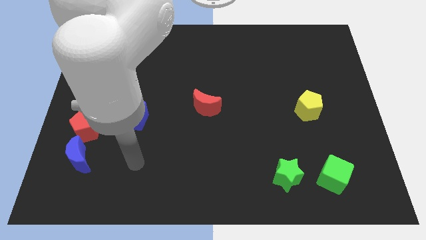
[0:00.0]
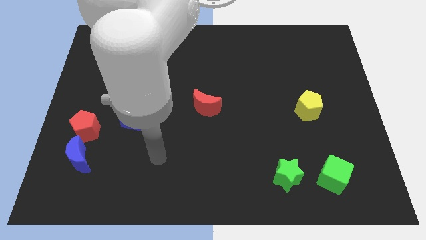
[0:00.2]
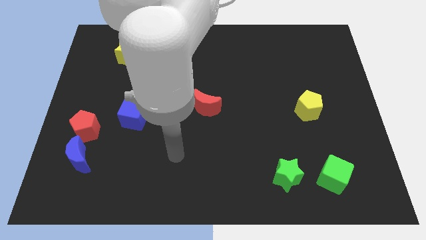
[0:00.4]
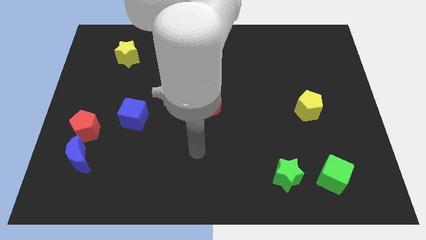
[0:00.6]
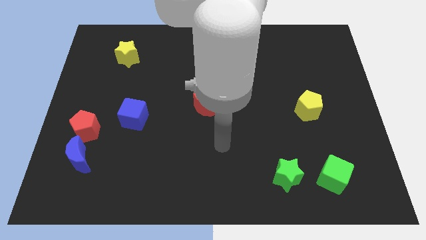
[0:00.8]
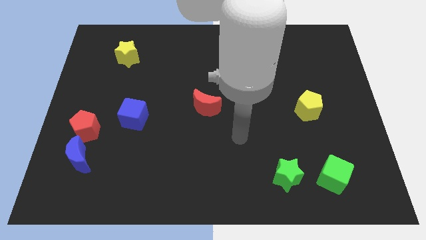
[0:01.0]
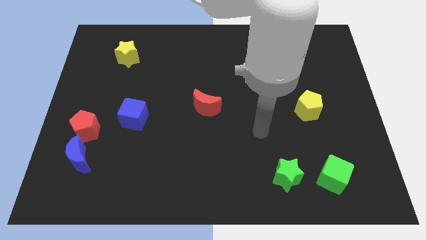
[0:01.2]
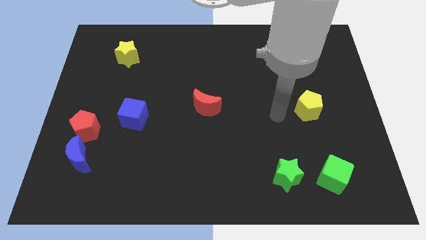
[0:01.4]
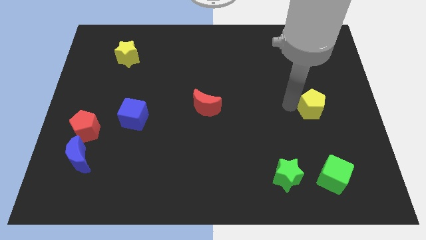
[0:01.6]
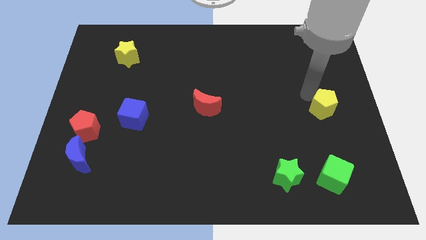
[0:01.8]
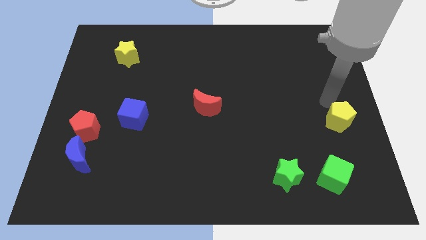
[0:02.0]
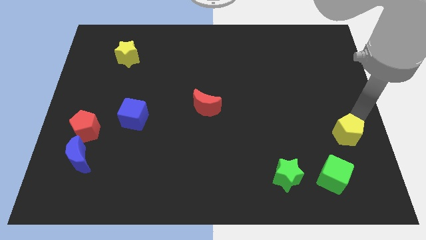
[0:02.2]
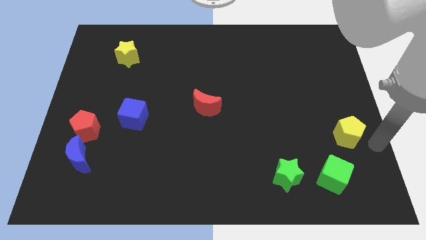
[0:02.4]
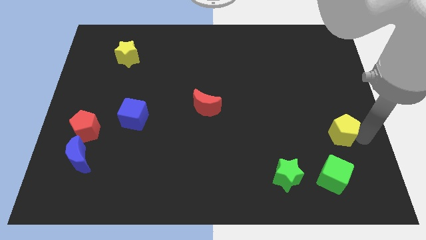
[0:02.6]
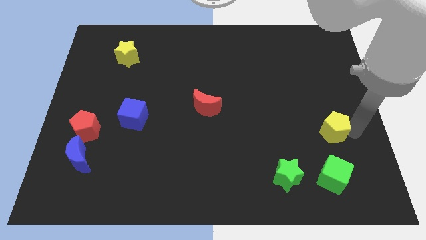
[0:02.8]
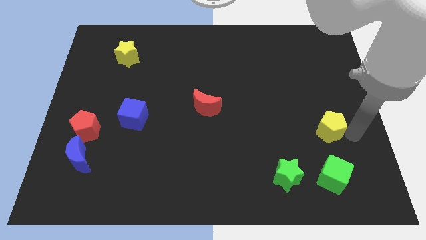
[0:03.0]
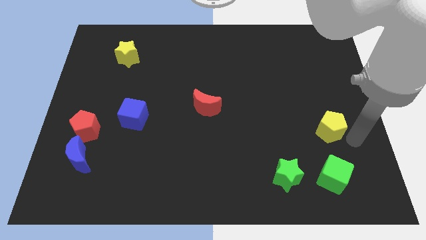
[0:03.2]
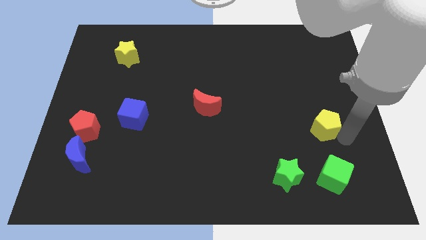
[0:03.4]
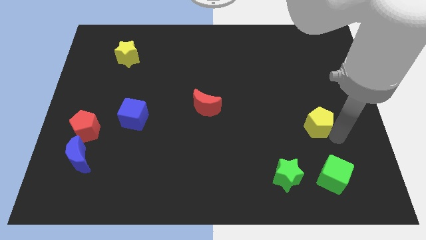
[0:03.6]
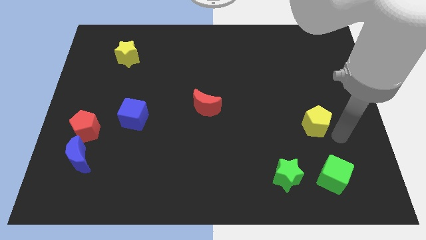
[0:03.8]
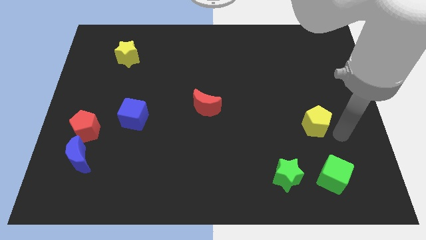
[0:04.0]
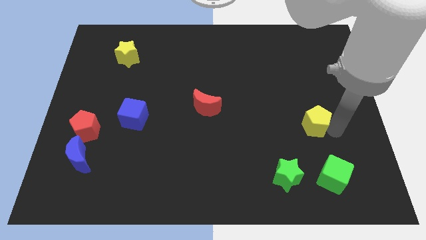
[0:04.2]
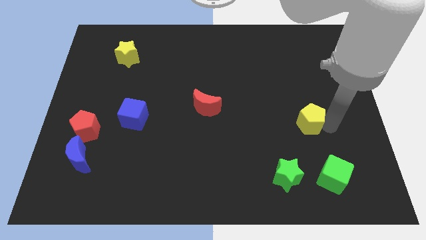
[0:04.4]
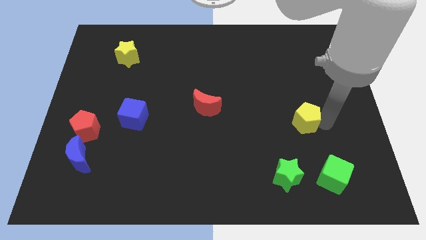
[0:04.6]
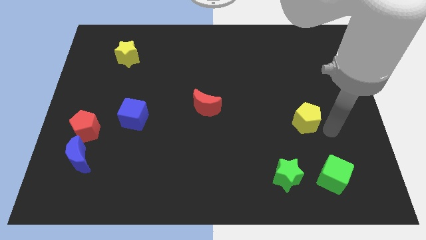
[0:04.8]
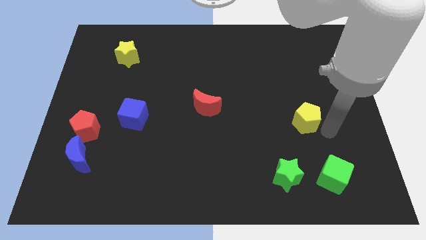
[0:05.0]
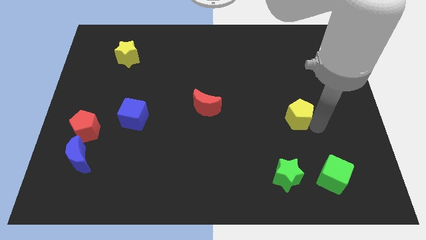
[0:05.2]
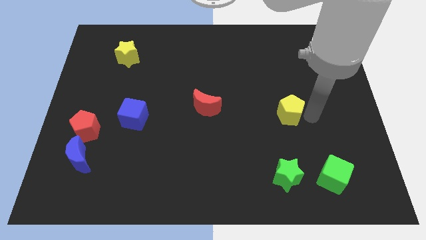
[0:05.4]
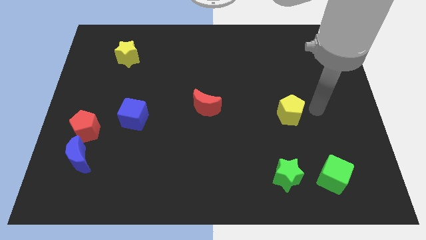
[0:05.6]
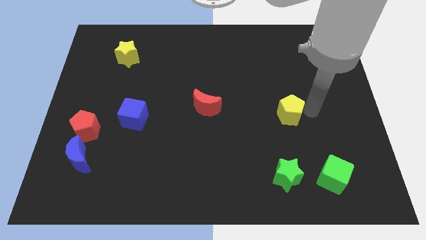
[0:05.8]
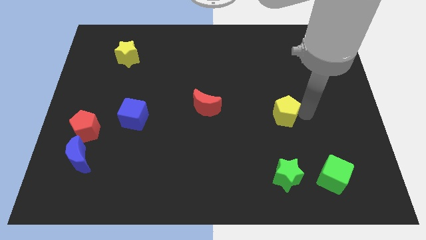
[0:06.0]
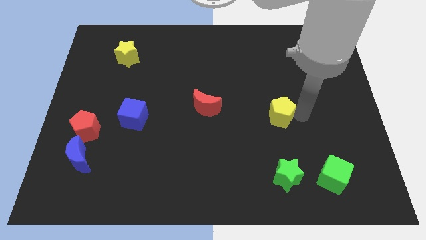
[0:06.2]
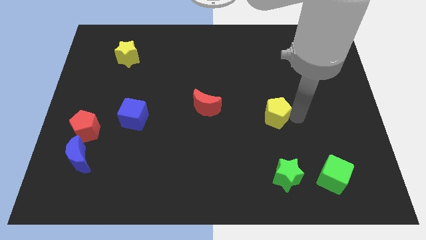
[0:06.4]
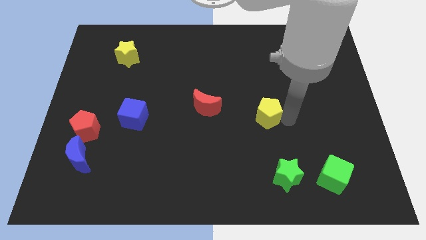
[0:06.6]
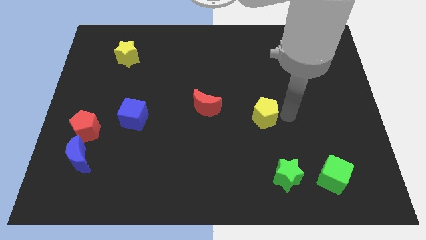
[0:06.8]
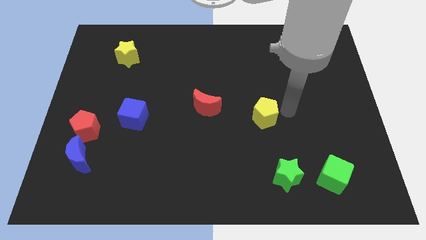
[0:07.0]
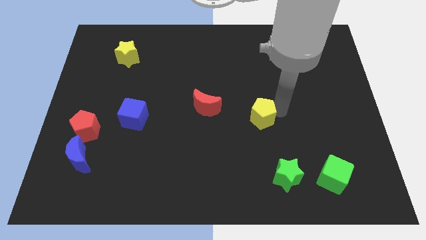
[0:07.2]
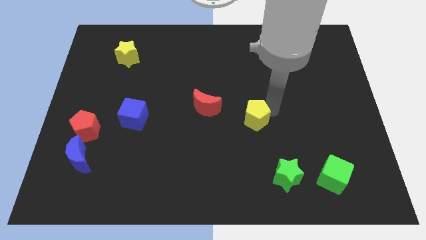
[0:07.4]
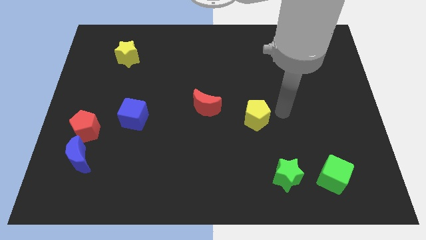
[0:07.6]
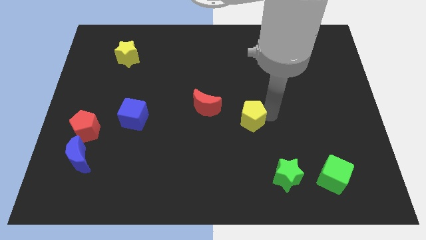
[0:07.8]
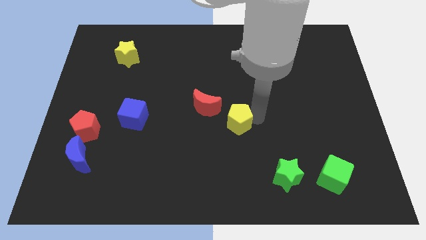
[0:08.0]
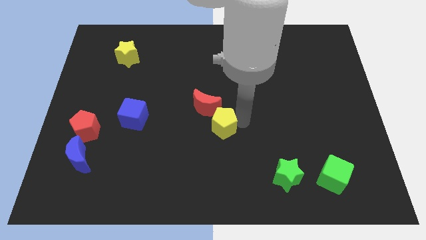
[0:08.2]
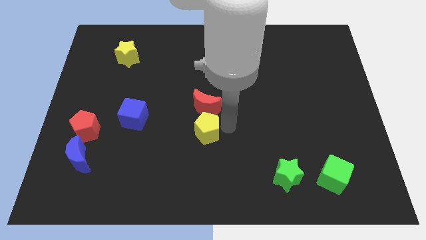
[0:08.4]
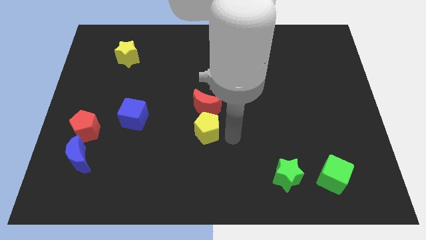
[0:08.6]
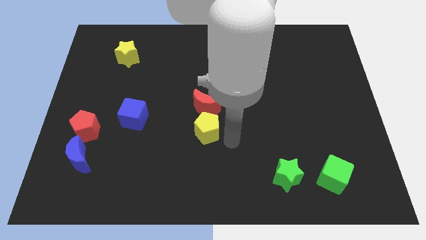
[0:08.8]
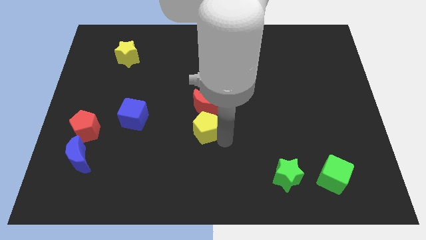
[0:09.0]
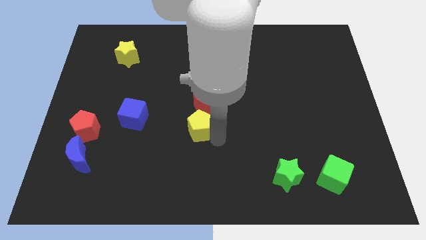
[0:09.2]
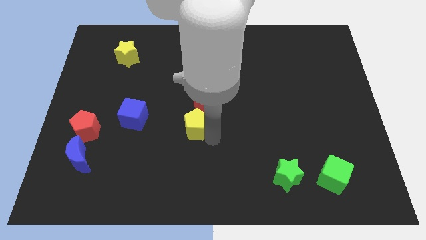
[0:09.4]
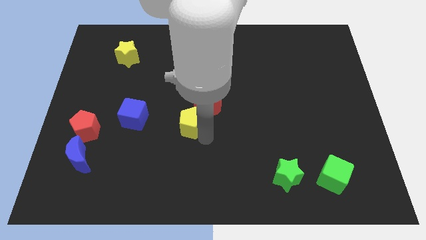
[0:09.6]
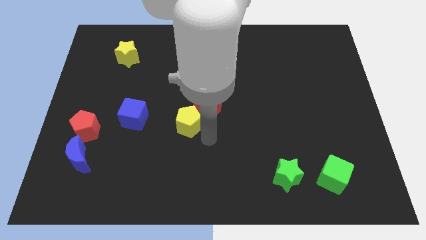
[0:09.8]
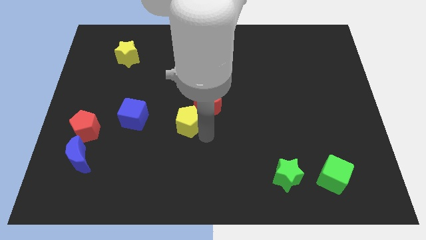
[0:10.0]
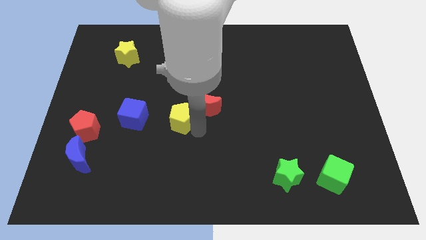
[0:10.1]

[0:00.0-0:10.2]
slide the yellow pentagon left of the red moon

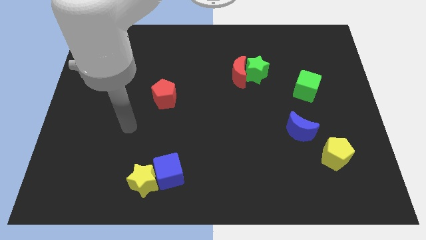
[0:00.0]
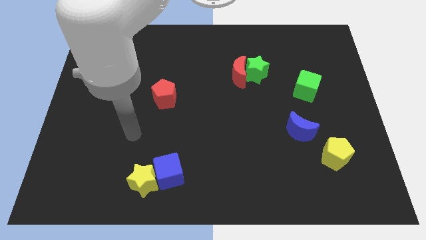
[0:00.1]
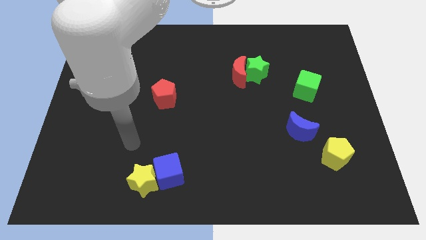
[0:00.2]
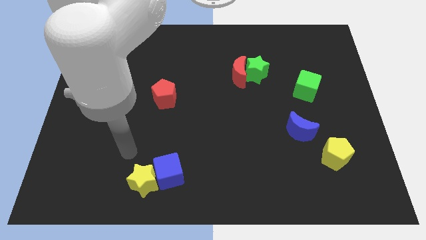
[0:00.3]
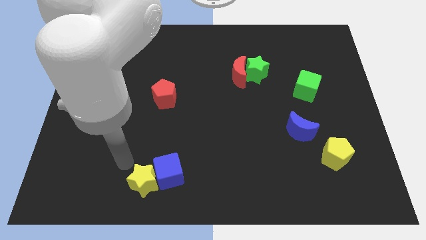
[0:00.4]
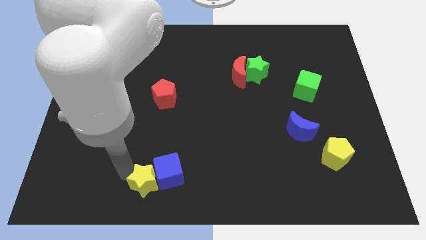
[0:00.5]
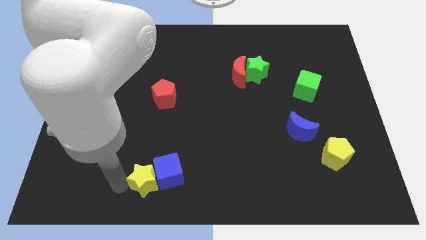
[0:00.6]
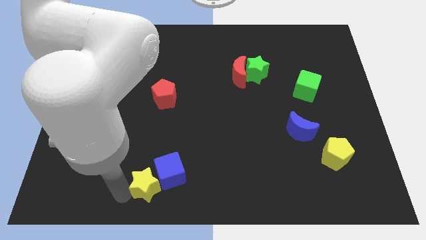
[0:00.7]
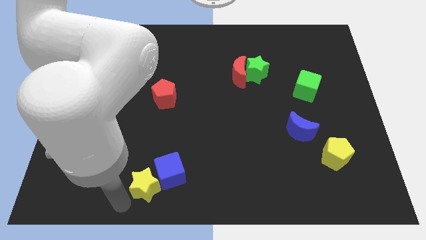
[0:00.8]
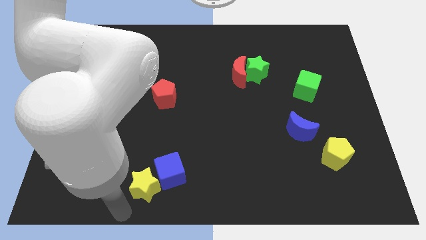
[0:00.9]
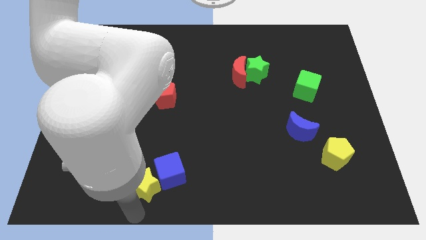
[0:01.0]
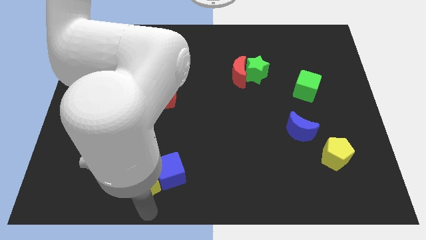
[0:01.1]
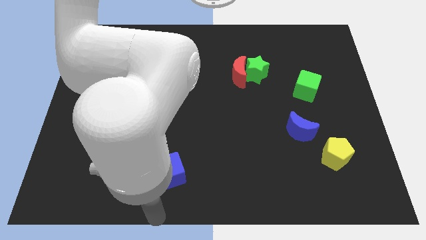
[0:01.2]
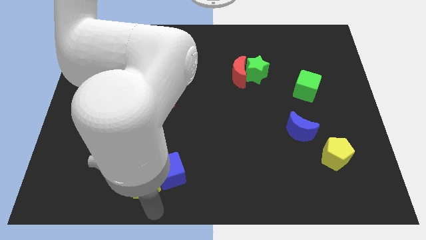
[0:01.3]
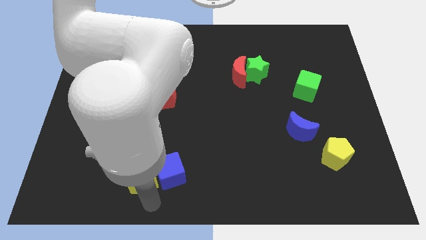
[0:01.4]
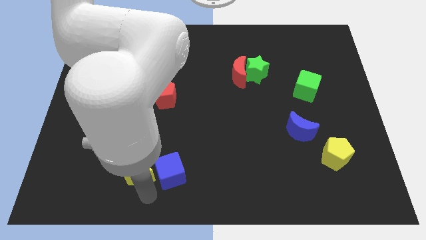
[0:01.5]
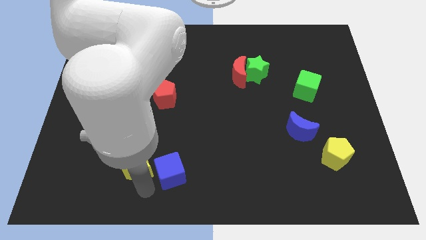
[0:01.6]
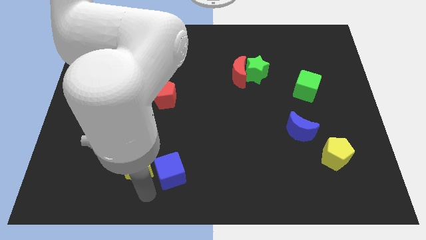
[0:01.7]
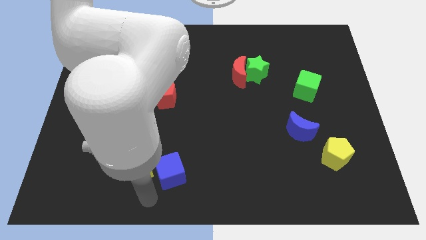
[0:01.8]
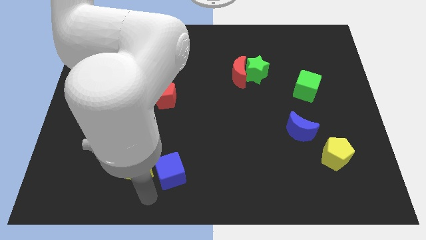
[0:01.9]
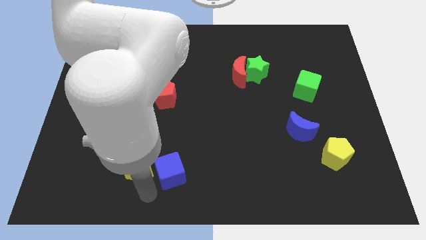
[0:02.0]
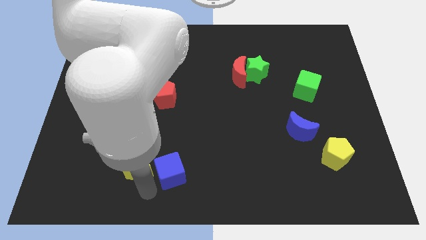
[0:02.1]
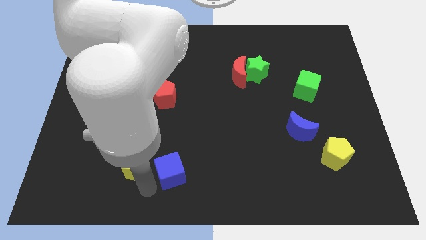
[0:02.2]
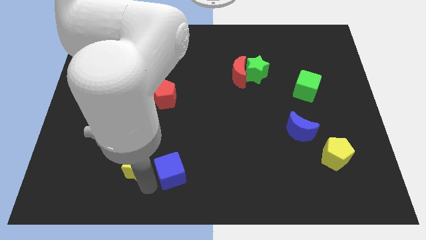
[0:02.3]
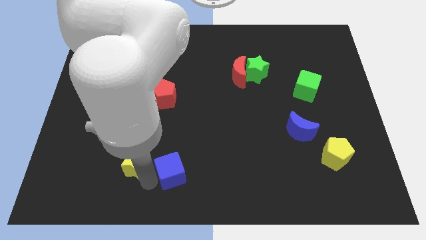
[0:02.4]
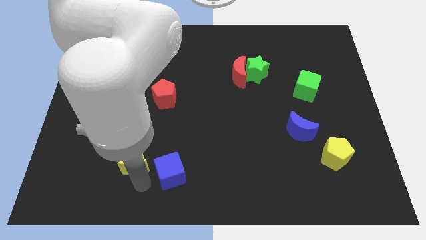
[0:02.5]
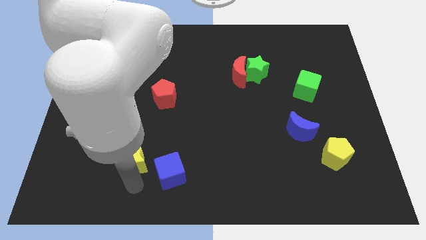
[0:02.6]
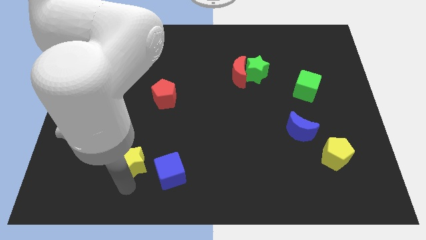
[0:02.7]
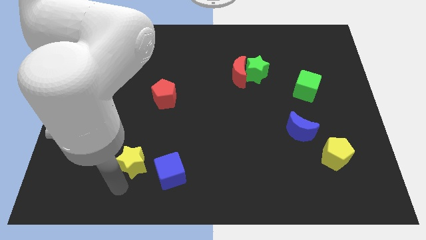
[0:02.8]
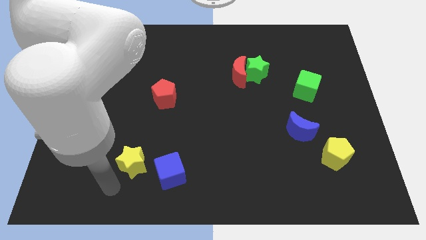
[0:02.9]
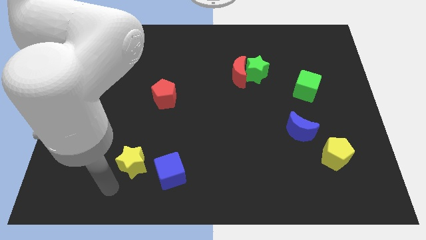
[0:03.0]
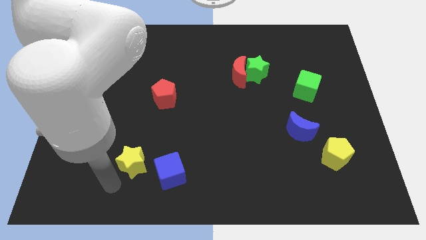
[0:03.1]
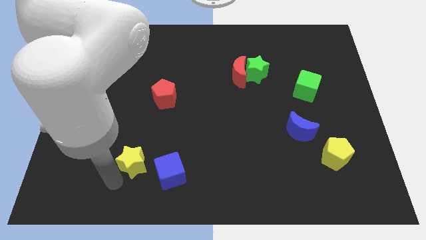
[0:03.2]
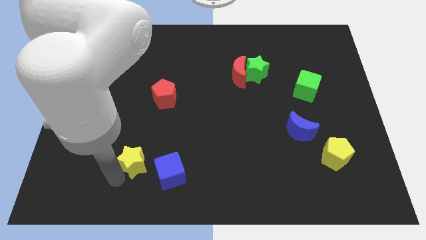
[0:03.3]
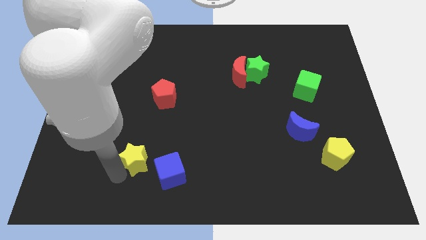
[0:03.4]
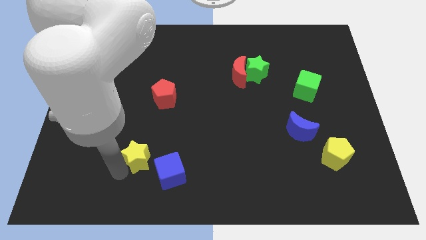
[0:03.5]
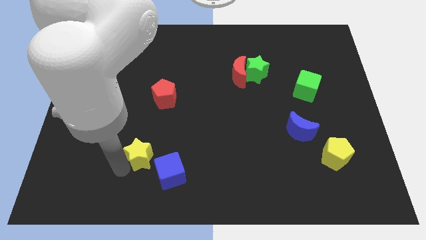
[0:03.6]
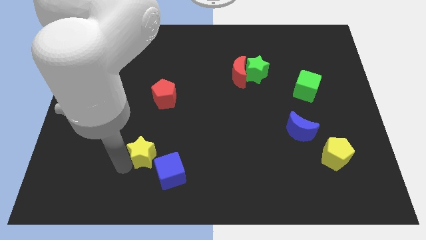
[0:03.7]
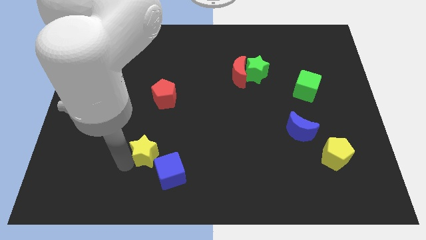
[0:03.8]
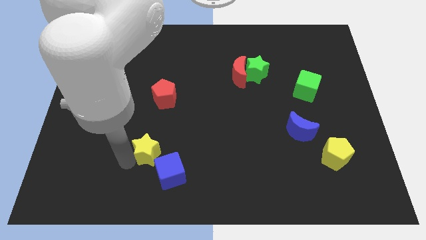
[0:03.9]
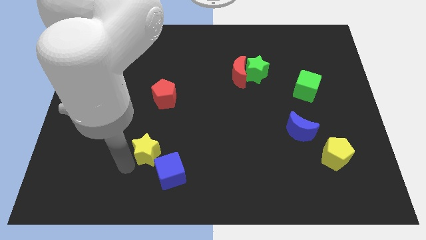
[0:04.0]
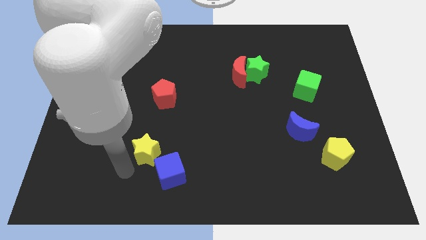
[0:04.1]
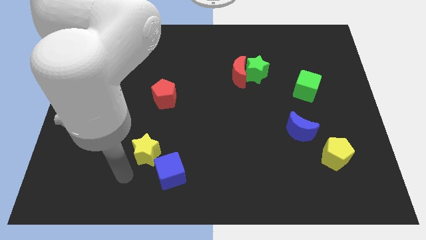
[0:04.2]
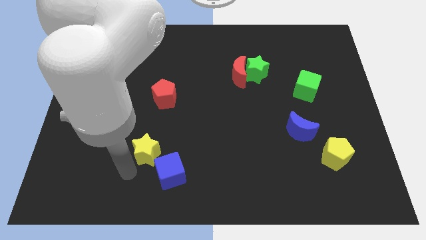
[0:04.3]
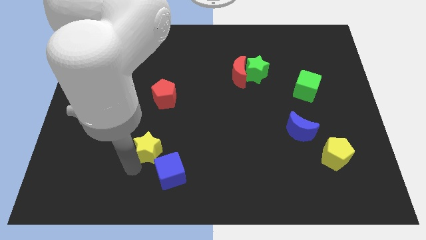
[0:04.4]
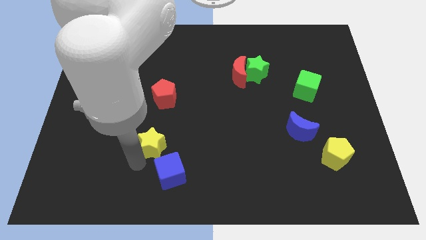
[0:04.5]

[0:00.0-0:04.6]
move the yellow star above the blue cube
